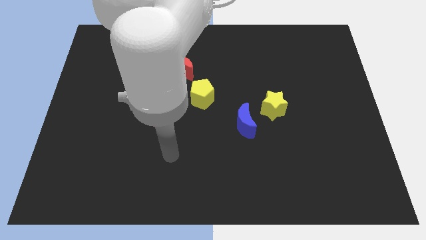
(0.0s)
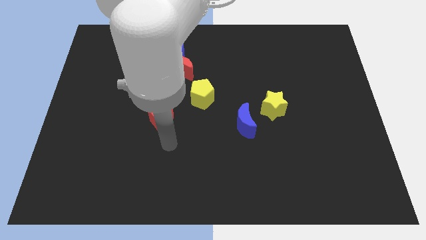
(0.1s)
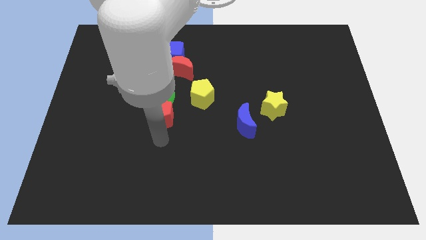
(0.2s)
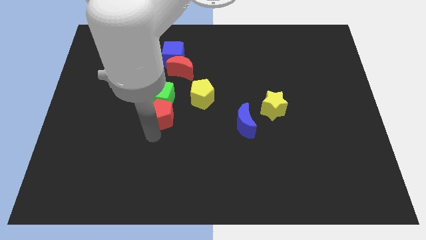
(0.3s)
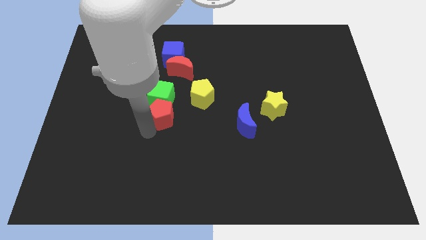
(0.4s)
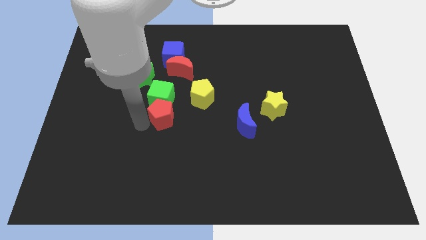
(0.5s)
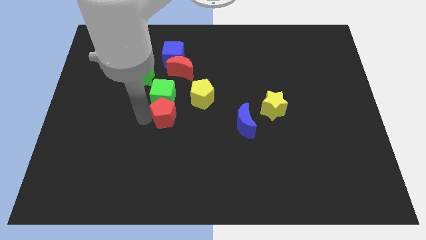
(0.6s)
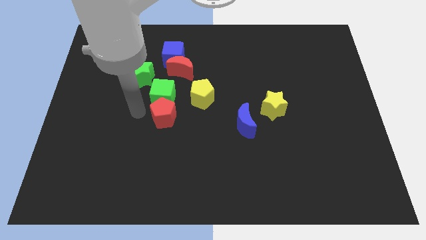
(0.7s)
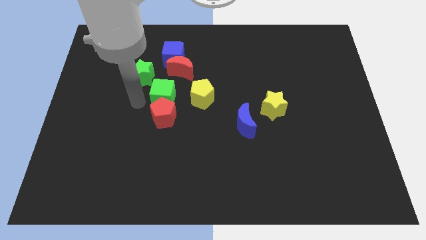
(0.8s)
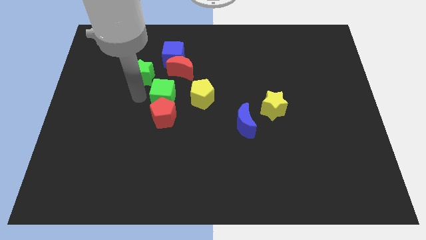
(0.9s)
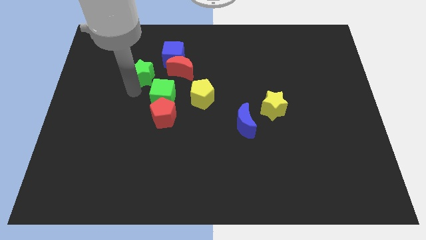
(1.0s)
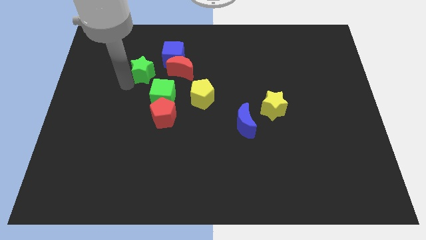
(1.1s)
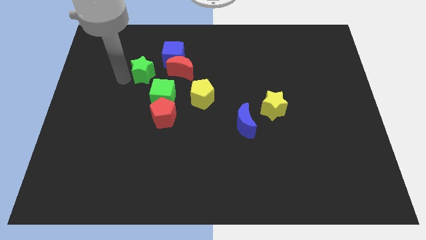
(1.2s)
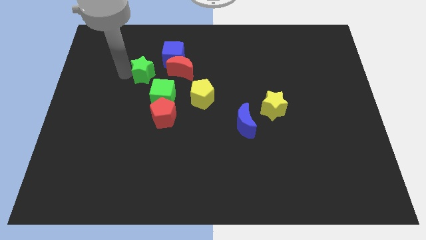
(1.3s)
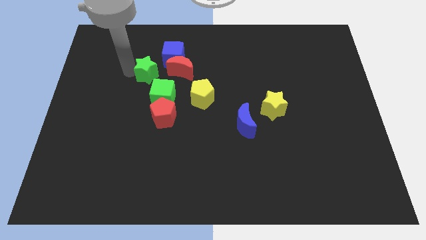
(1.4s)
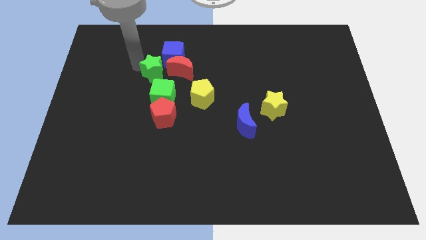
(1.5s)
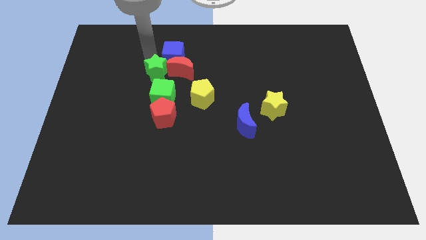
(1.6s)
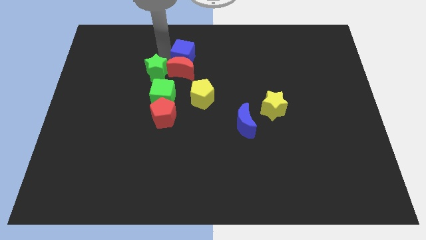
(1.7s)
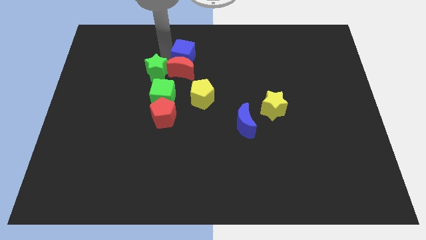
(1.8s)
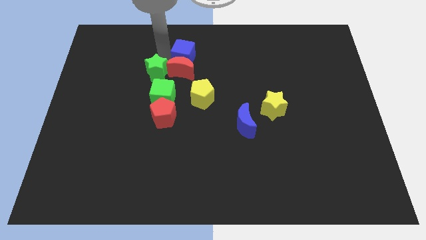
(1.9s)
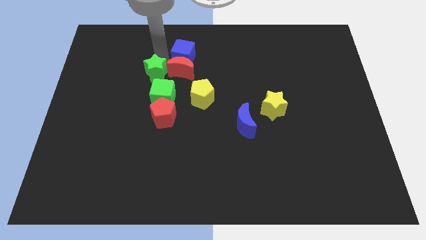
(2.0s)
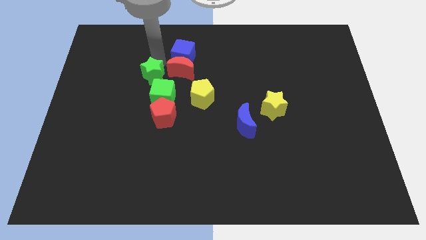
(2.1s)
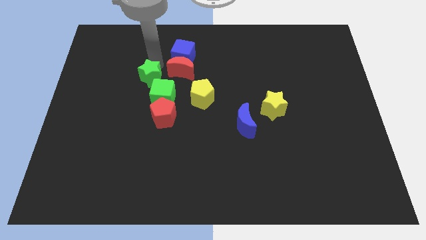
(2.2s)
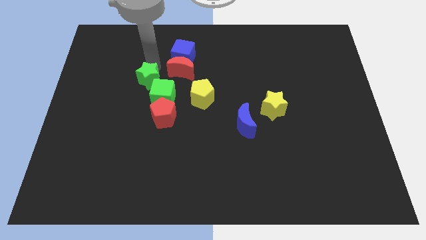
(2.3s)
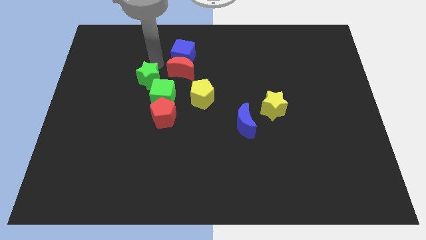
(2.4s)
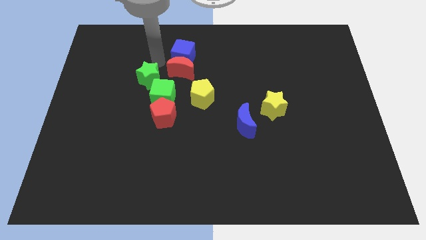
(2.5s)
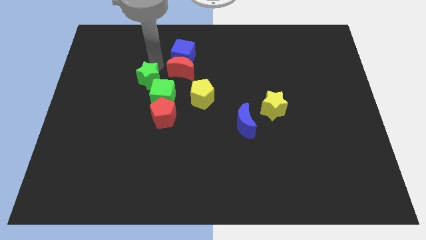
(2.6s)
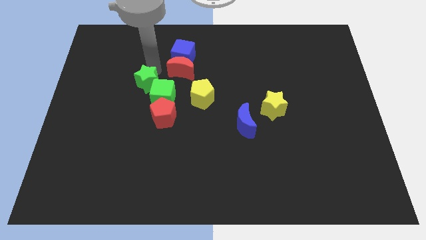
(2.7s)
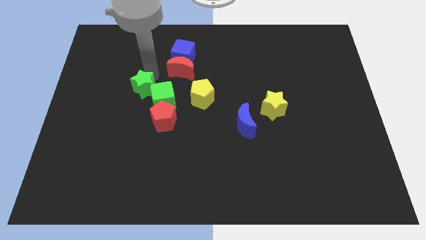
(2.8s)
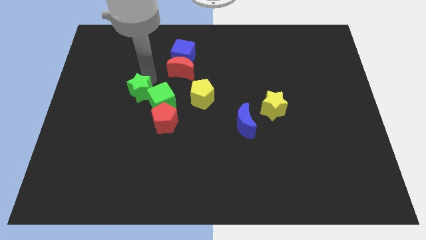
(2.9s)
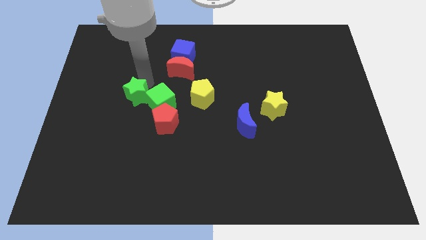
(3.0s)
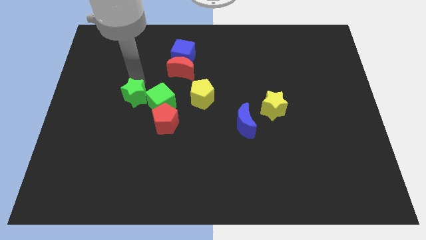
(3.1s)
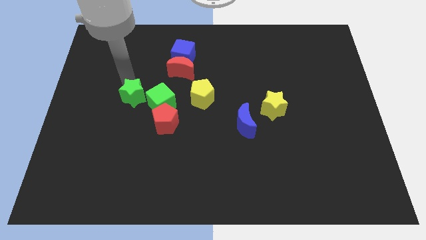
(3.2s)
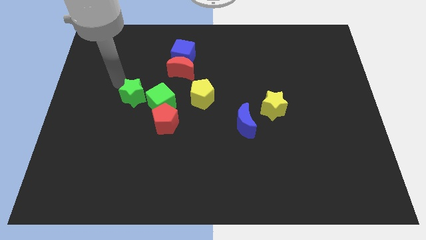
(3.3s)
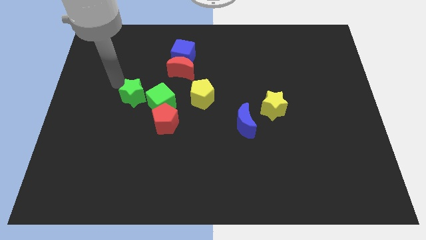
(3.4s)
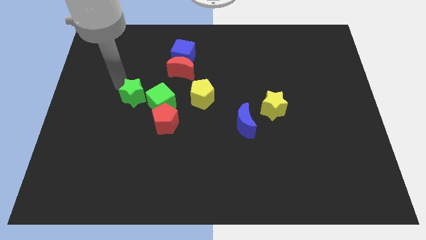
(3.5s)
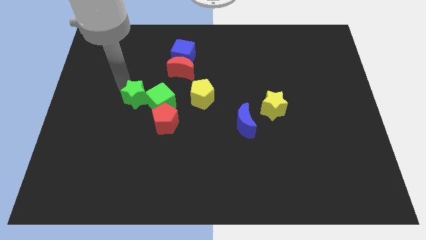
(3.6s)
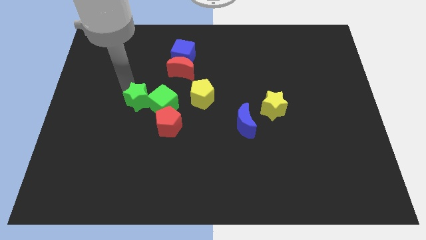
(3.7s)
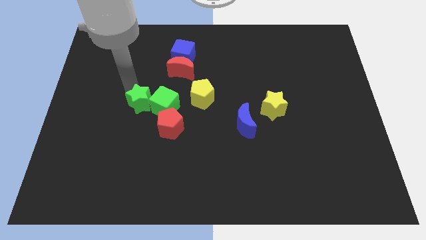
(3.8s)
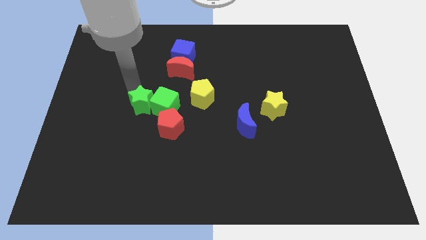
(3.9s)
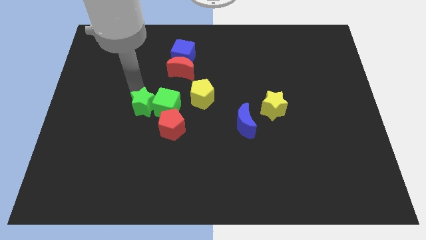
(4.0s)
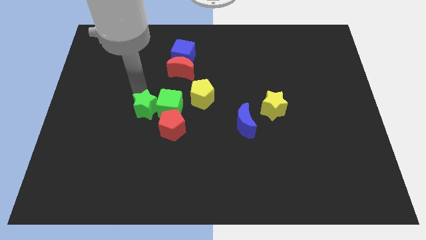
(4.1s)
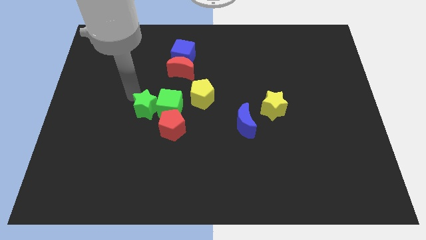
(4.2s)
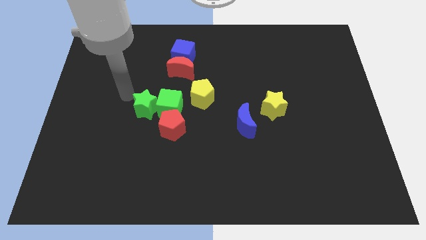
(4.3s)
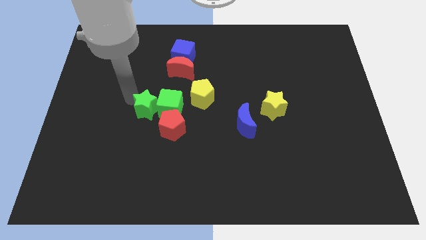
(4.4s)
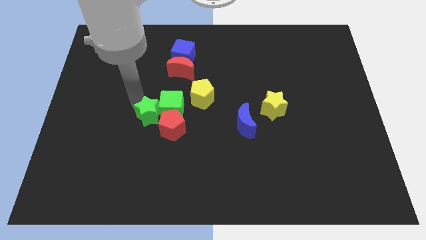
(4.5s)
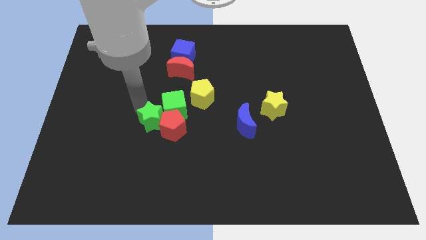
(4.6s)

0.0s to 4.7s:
put the green star to the red pentagon

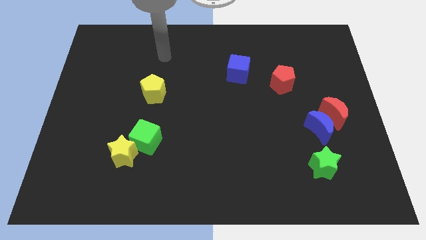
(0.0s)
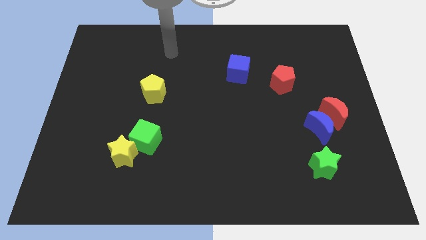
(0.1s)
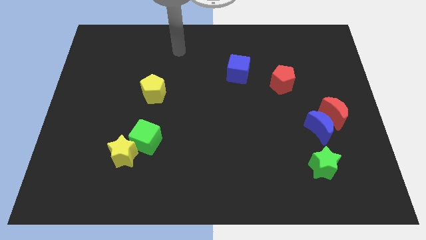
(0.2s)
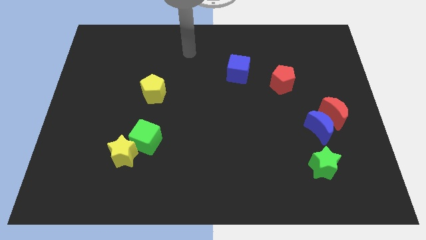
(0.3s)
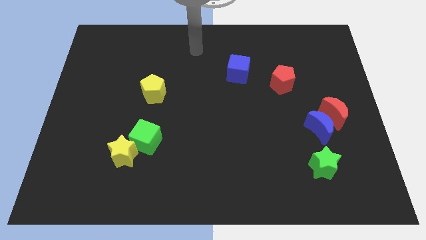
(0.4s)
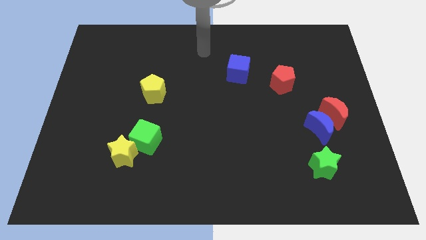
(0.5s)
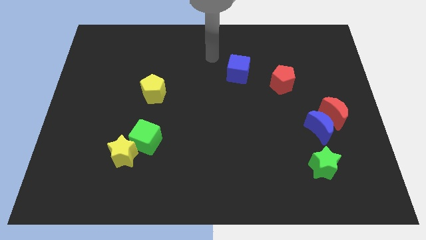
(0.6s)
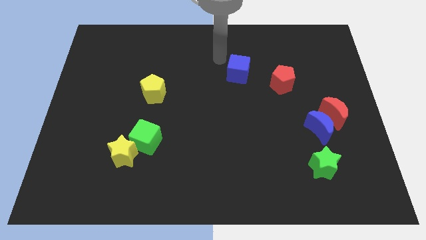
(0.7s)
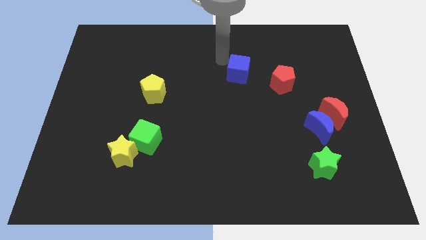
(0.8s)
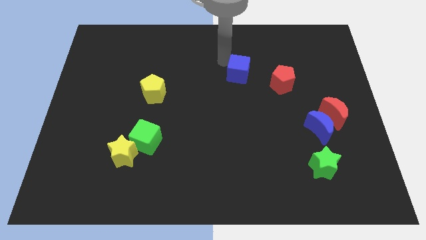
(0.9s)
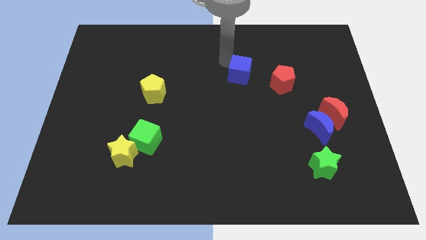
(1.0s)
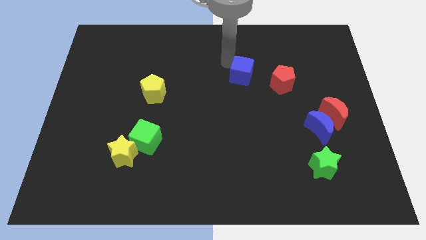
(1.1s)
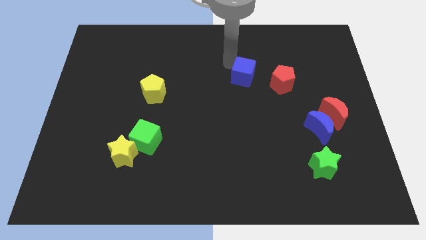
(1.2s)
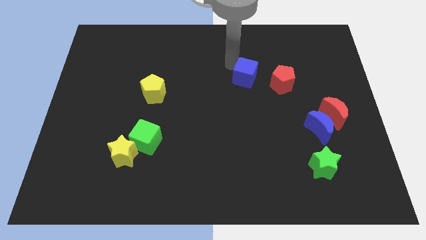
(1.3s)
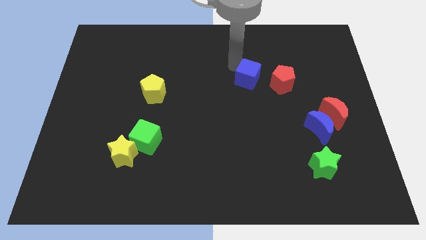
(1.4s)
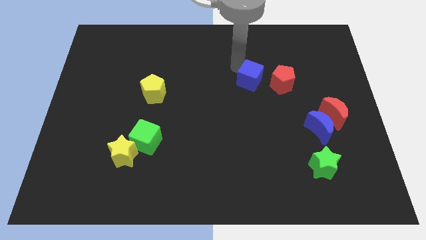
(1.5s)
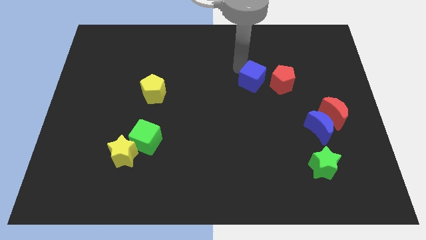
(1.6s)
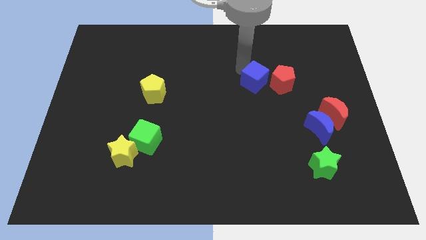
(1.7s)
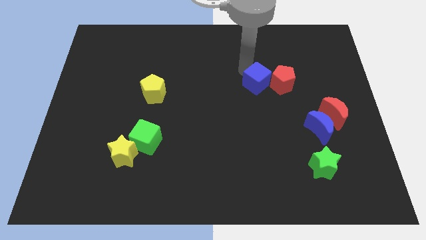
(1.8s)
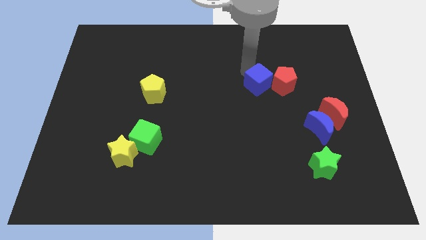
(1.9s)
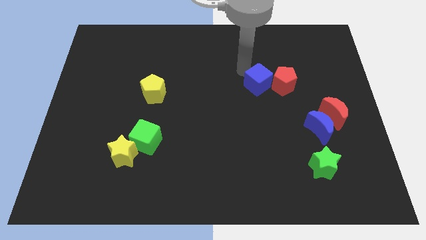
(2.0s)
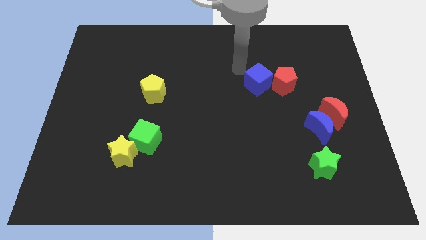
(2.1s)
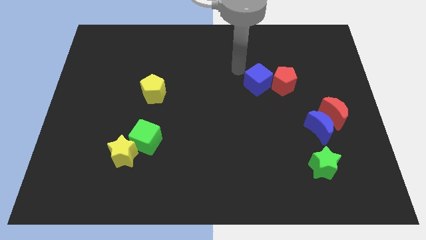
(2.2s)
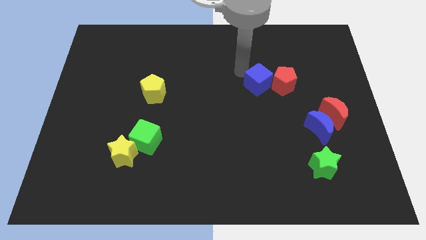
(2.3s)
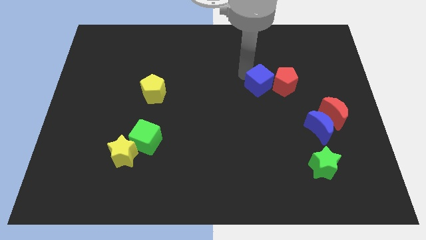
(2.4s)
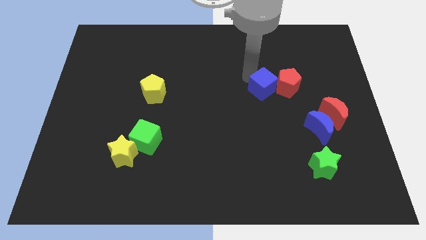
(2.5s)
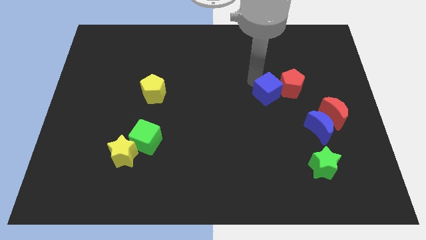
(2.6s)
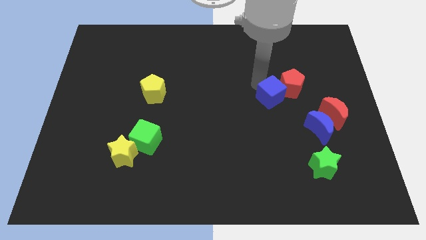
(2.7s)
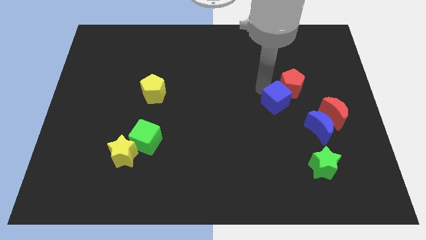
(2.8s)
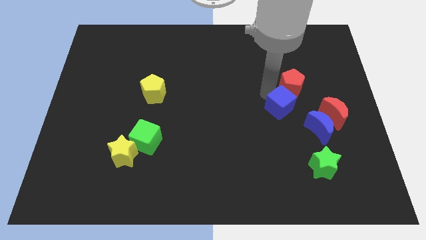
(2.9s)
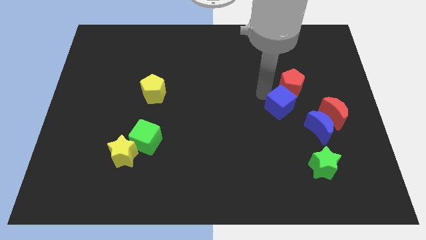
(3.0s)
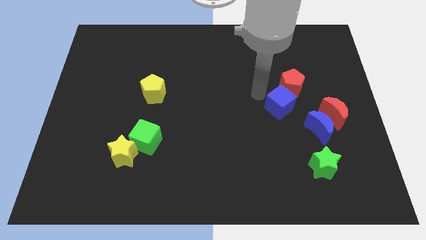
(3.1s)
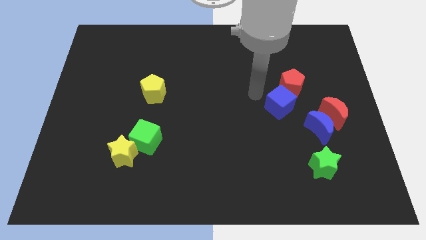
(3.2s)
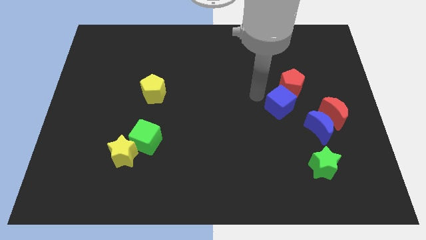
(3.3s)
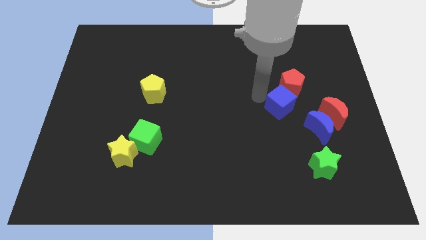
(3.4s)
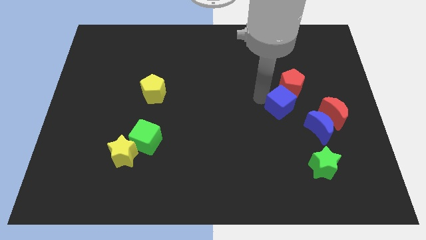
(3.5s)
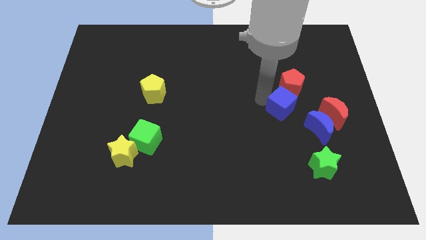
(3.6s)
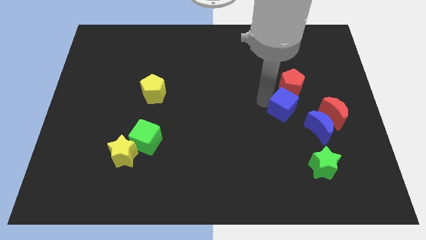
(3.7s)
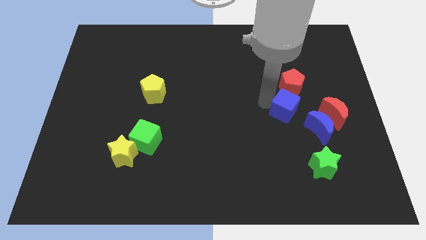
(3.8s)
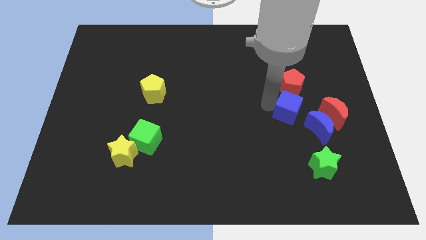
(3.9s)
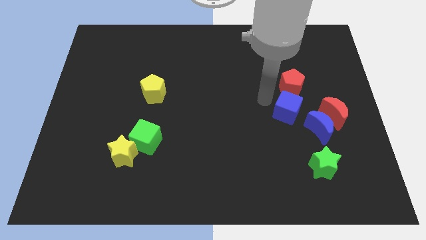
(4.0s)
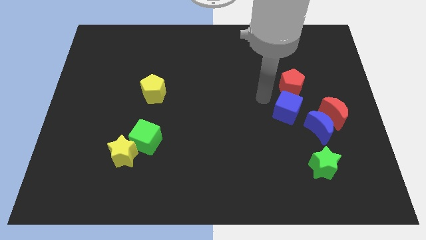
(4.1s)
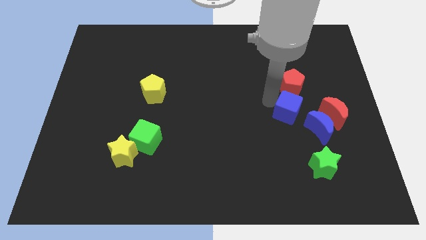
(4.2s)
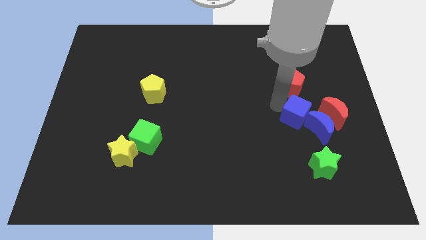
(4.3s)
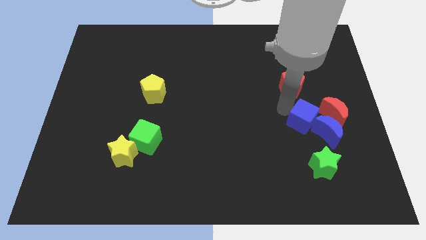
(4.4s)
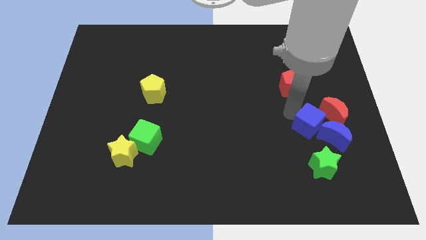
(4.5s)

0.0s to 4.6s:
push the blue cube to the blue moon
